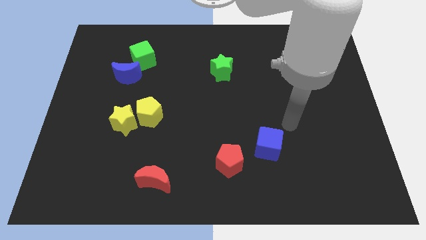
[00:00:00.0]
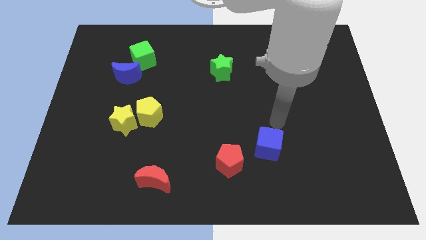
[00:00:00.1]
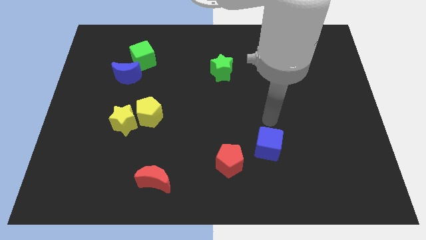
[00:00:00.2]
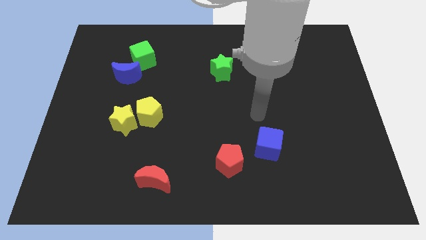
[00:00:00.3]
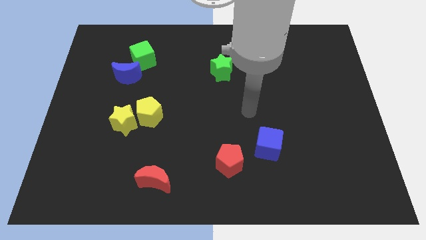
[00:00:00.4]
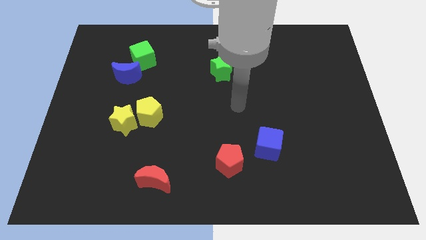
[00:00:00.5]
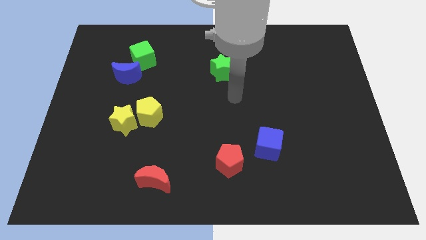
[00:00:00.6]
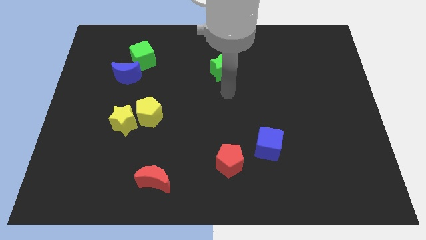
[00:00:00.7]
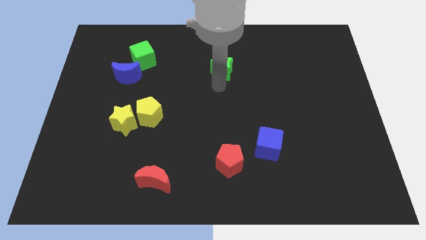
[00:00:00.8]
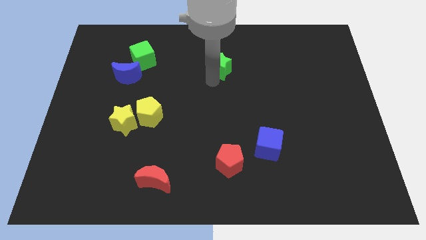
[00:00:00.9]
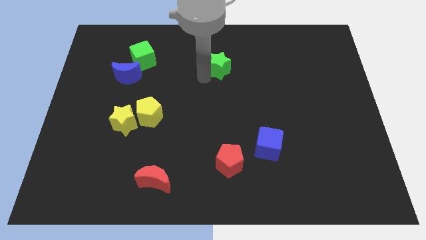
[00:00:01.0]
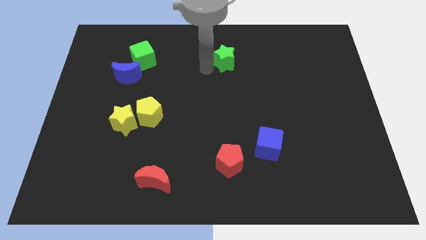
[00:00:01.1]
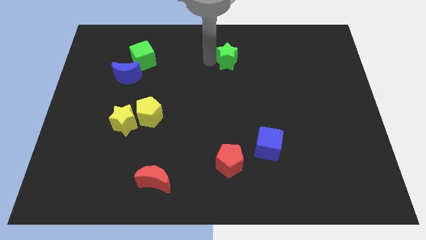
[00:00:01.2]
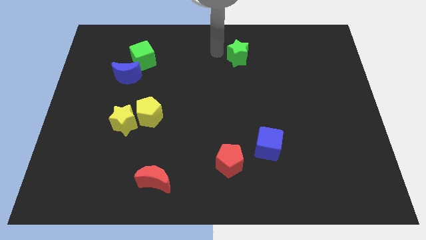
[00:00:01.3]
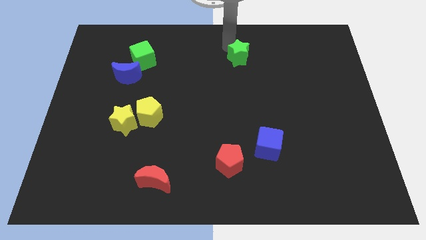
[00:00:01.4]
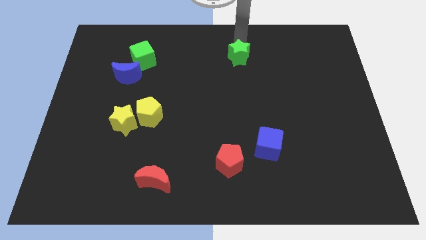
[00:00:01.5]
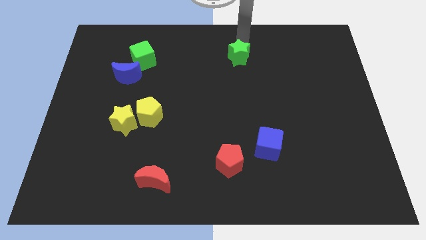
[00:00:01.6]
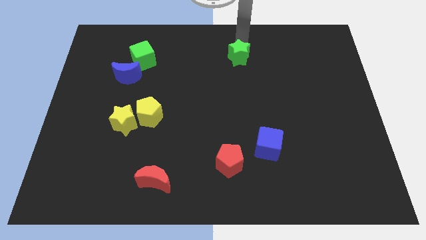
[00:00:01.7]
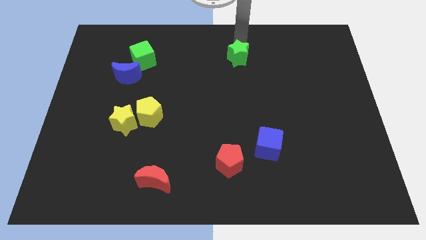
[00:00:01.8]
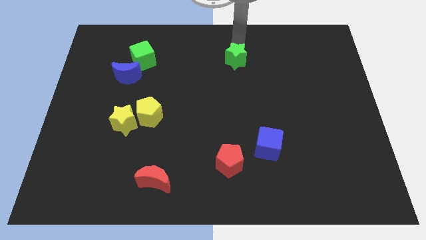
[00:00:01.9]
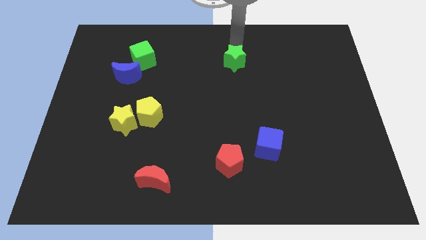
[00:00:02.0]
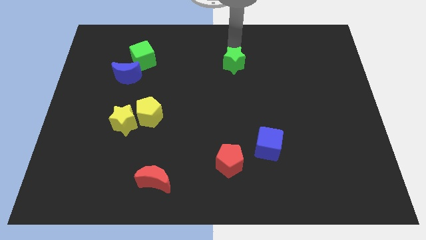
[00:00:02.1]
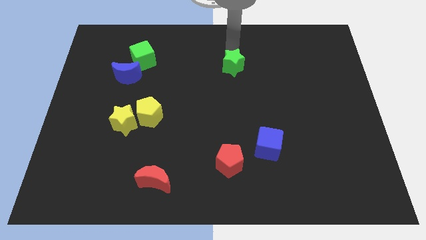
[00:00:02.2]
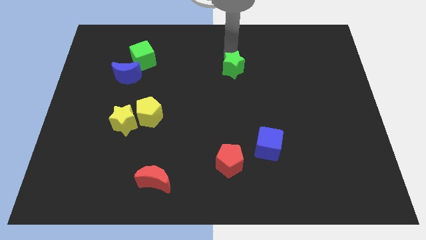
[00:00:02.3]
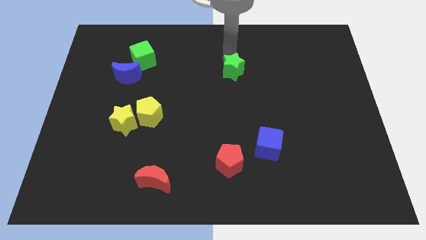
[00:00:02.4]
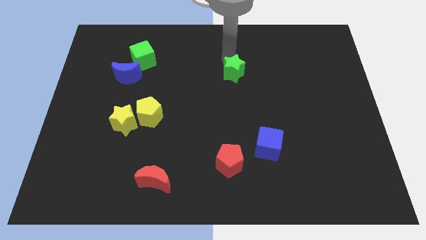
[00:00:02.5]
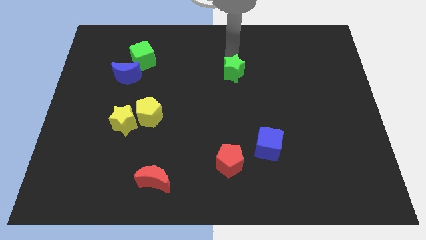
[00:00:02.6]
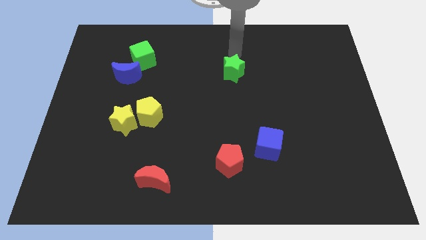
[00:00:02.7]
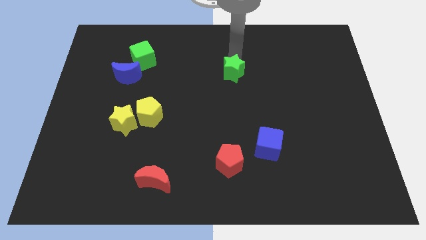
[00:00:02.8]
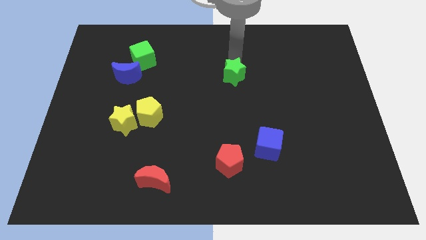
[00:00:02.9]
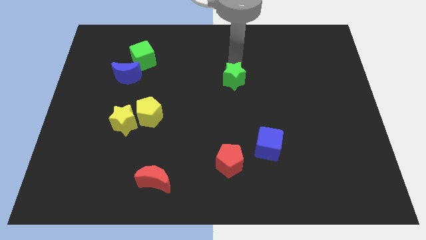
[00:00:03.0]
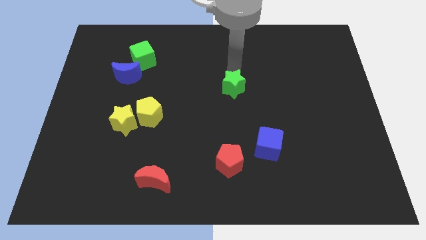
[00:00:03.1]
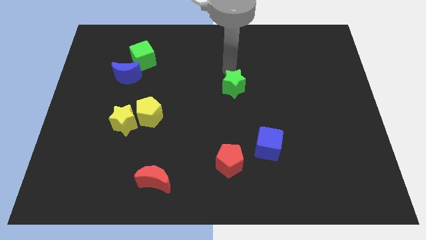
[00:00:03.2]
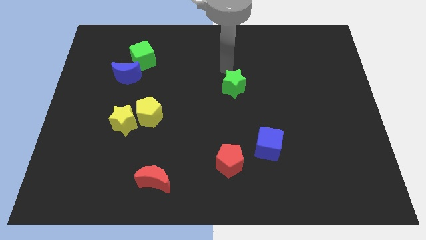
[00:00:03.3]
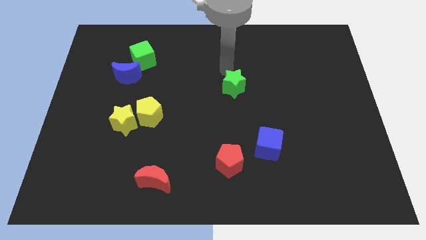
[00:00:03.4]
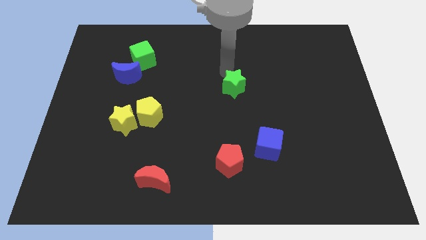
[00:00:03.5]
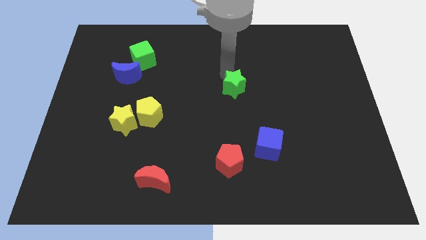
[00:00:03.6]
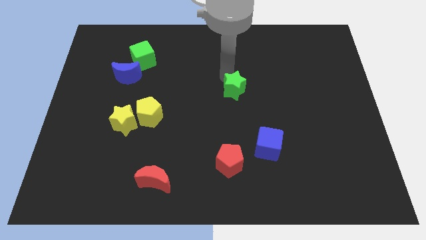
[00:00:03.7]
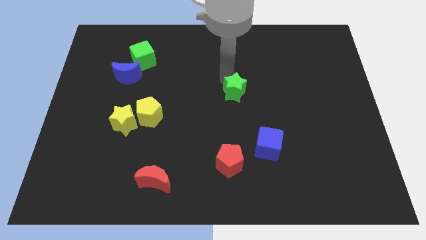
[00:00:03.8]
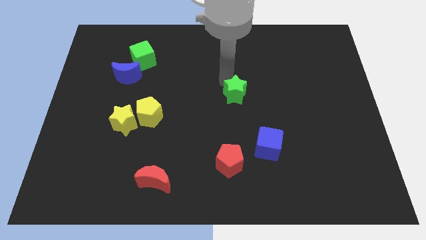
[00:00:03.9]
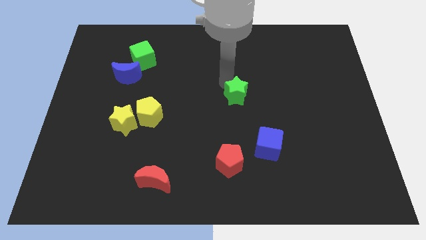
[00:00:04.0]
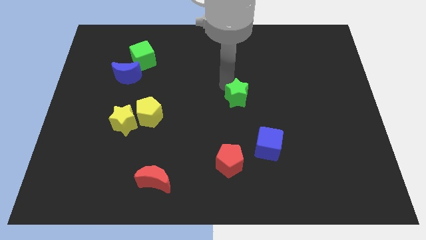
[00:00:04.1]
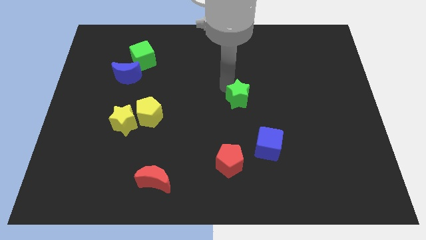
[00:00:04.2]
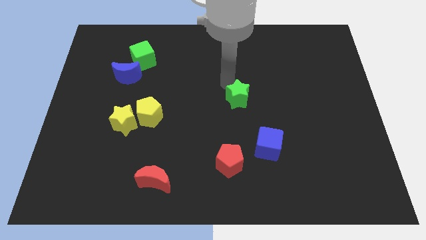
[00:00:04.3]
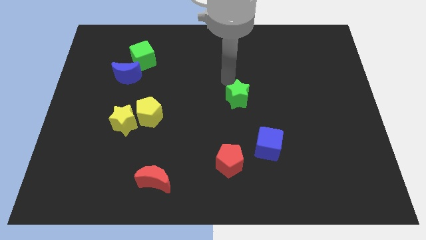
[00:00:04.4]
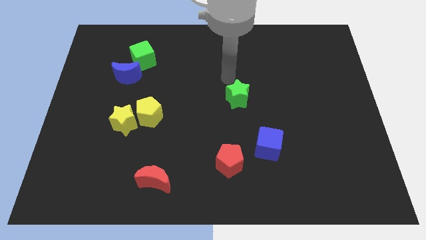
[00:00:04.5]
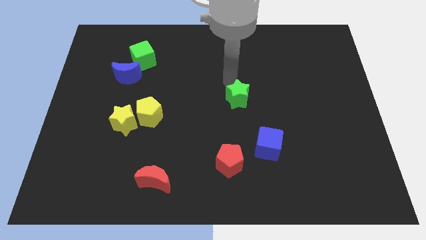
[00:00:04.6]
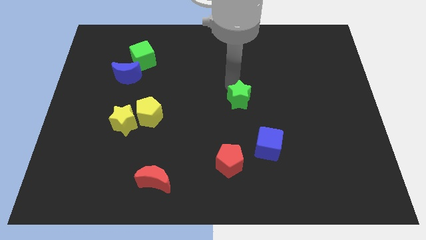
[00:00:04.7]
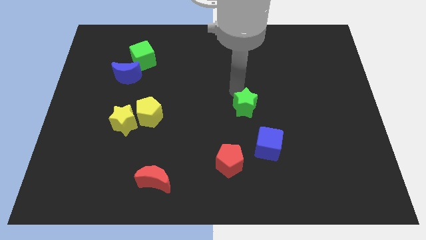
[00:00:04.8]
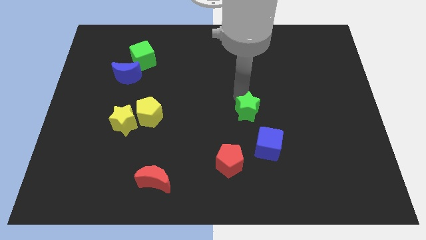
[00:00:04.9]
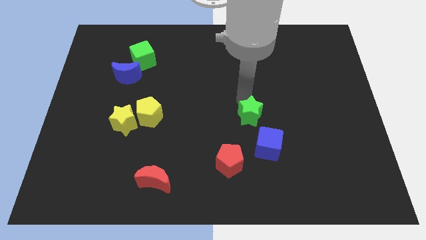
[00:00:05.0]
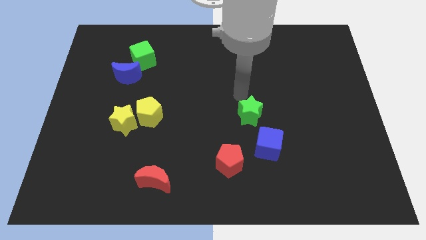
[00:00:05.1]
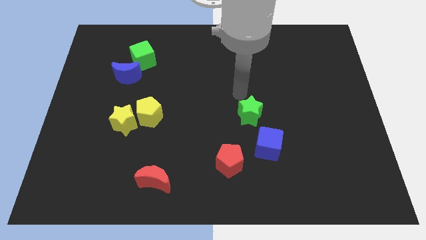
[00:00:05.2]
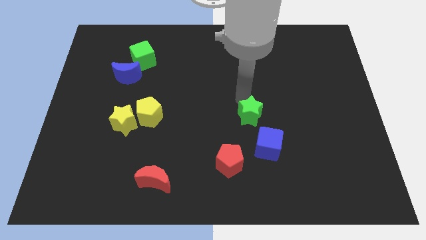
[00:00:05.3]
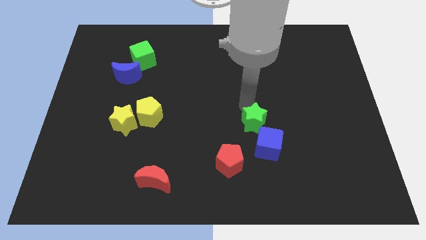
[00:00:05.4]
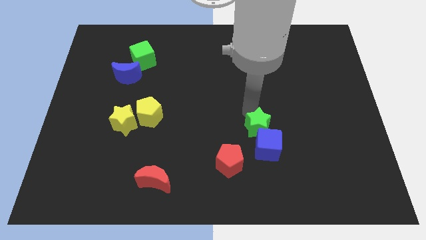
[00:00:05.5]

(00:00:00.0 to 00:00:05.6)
push the green star close to the blue cube

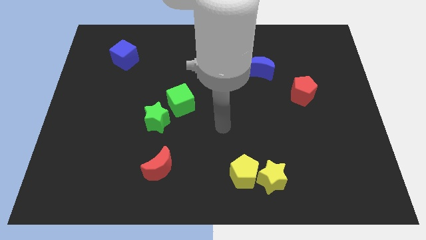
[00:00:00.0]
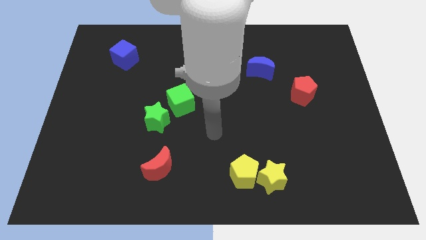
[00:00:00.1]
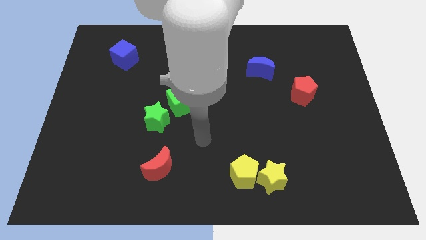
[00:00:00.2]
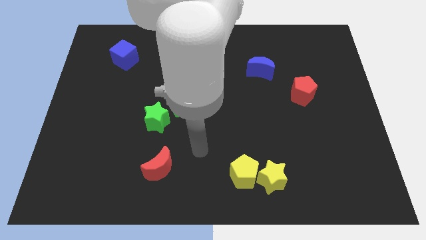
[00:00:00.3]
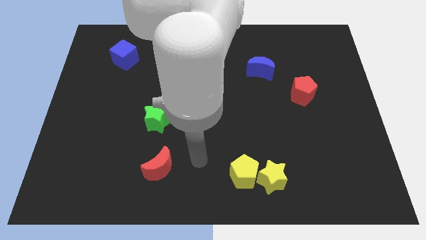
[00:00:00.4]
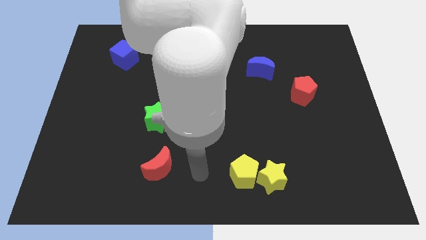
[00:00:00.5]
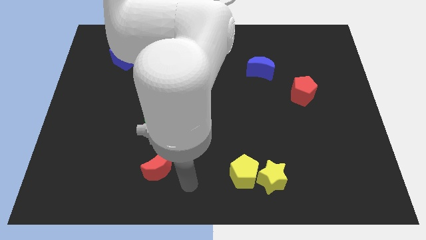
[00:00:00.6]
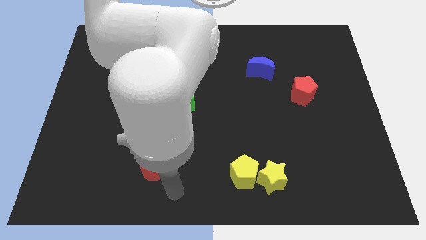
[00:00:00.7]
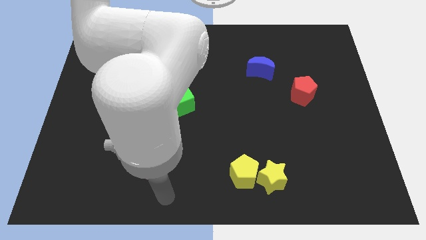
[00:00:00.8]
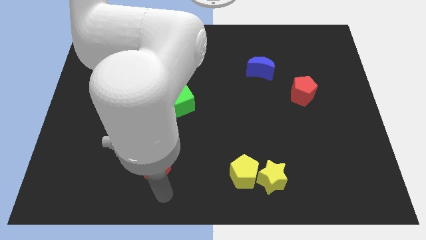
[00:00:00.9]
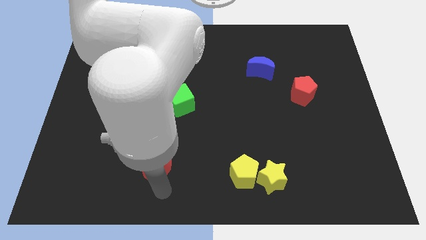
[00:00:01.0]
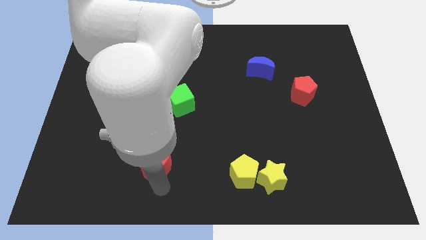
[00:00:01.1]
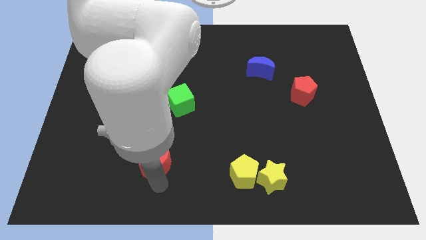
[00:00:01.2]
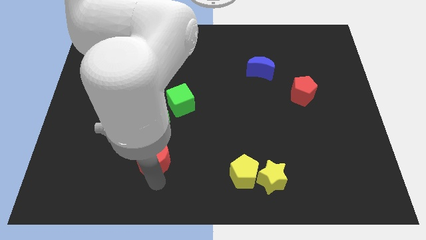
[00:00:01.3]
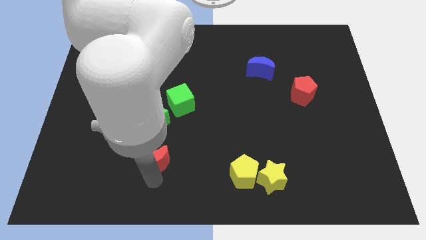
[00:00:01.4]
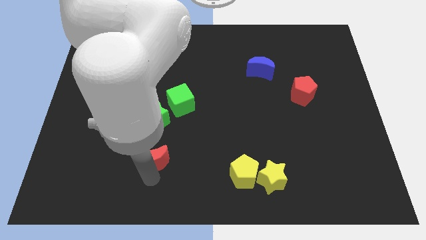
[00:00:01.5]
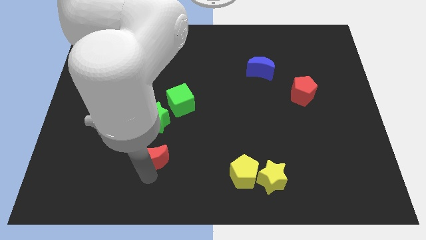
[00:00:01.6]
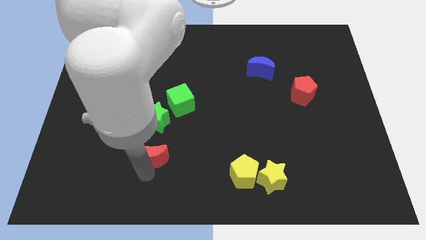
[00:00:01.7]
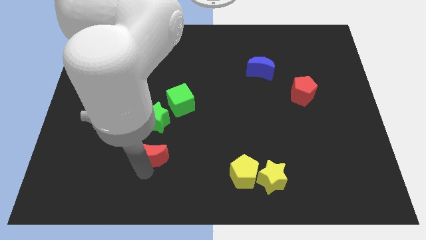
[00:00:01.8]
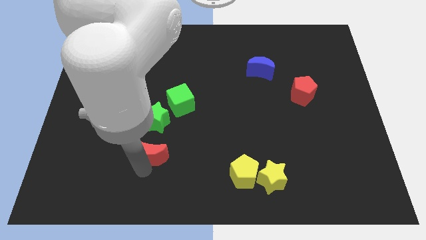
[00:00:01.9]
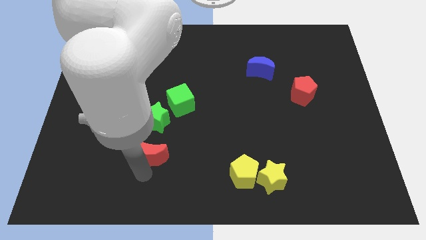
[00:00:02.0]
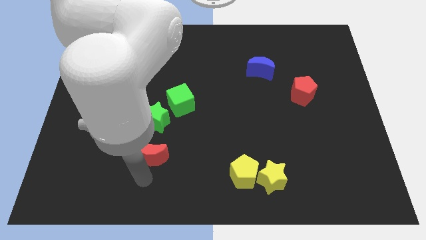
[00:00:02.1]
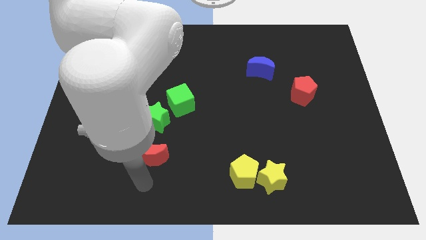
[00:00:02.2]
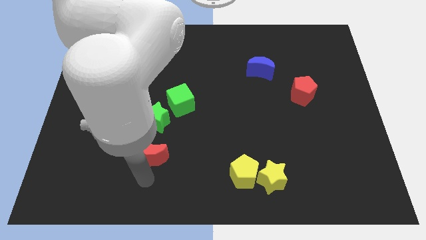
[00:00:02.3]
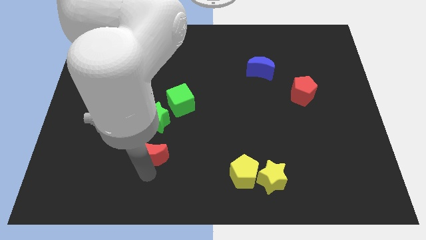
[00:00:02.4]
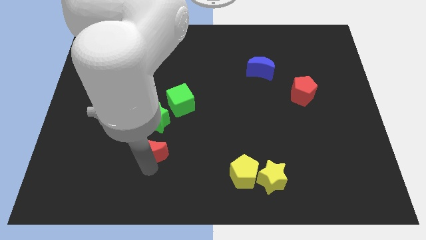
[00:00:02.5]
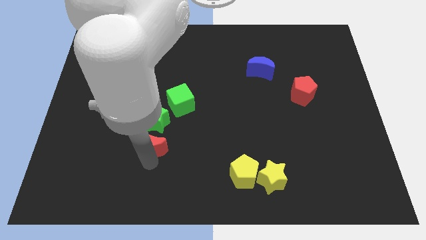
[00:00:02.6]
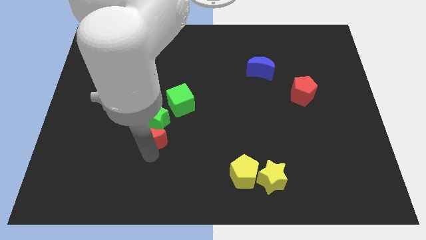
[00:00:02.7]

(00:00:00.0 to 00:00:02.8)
move the red moon close to the green star
